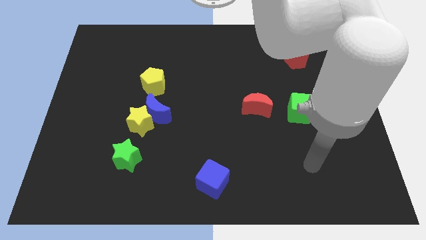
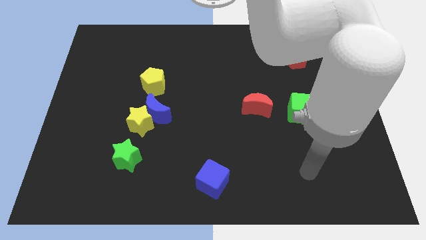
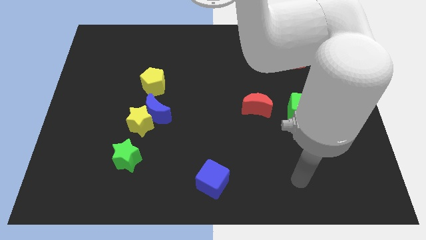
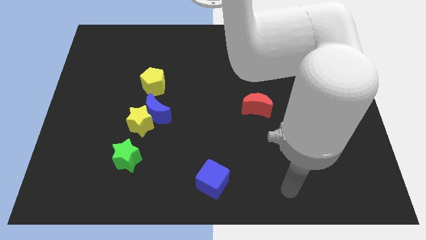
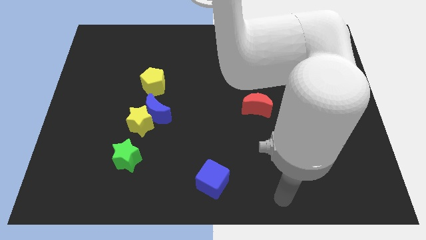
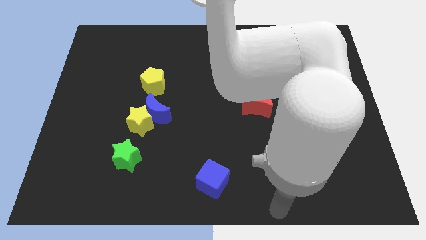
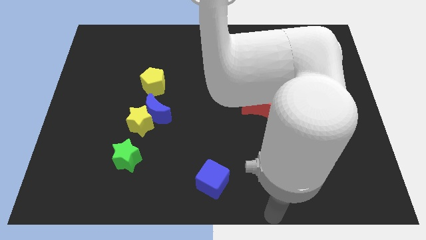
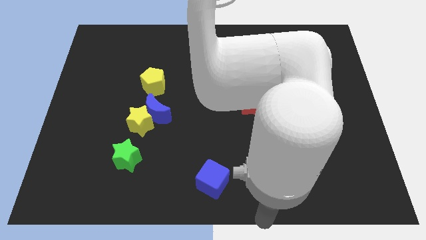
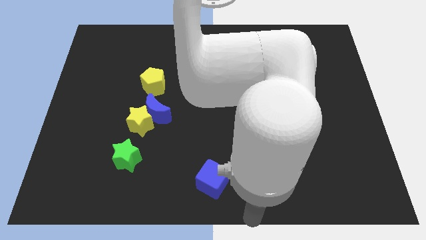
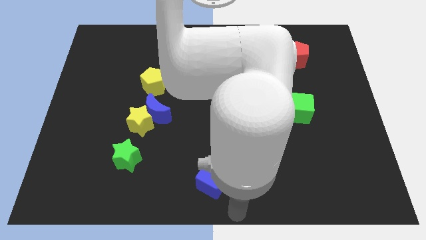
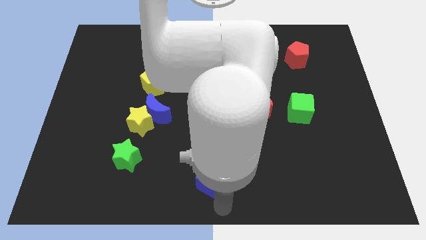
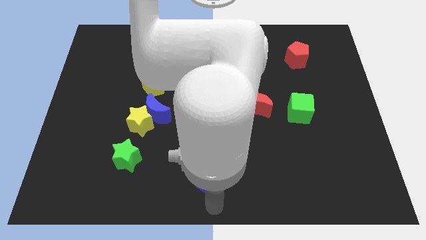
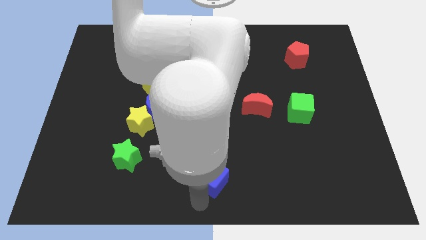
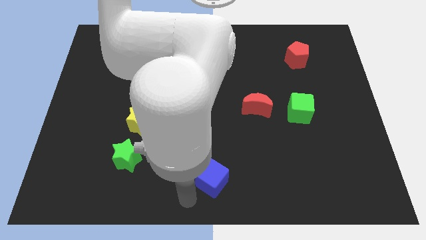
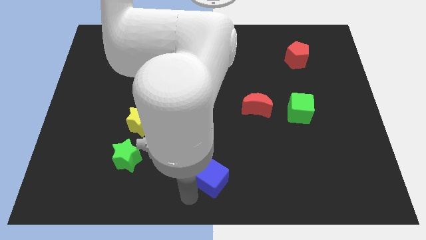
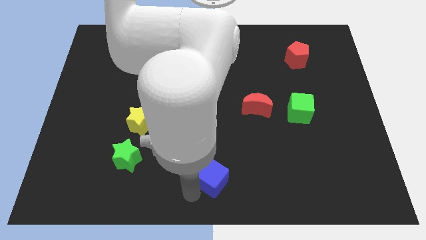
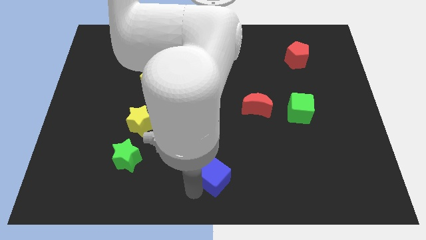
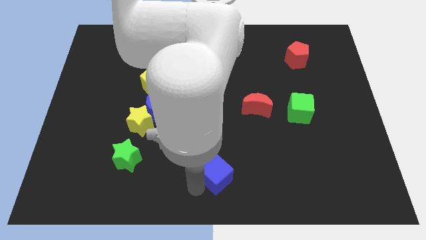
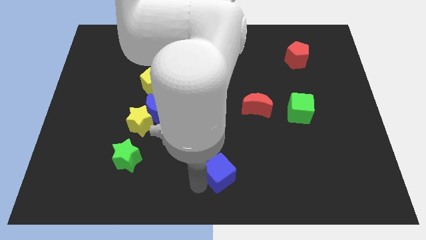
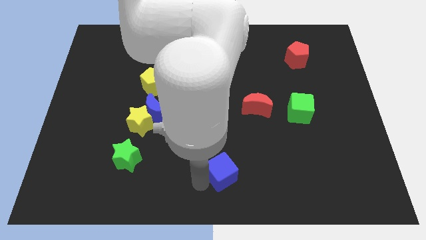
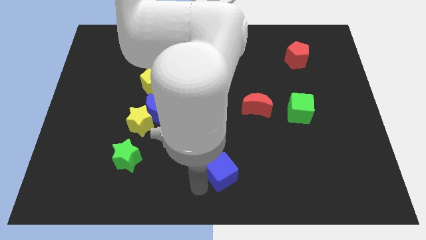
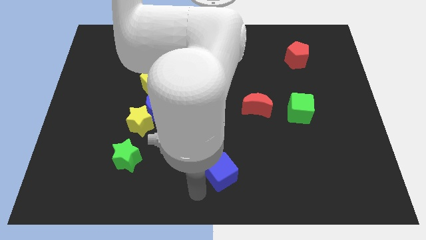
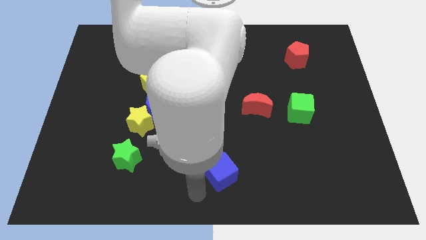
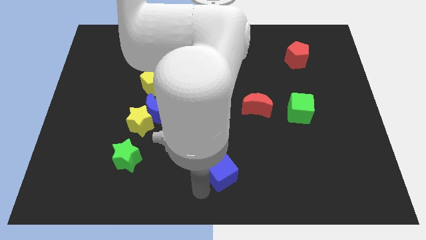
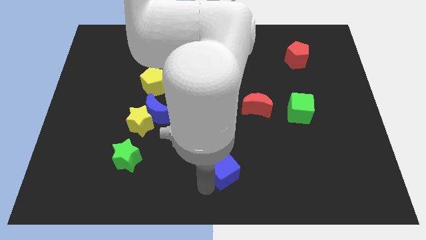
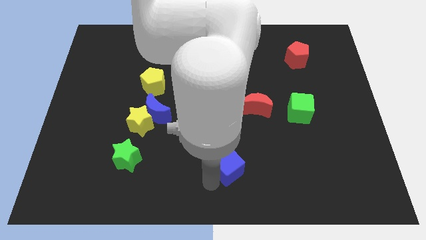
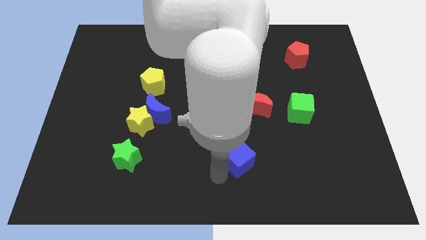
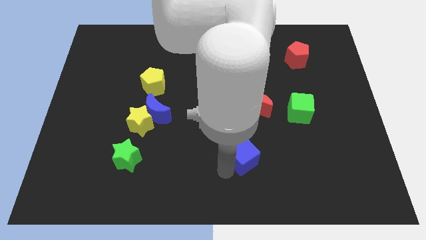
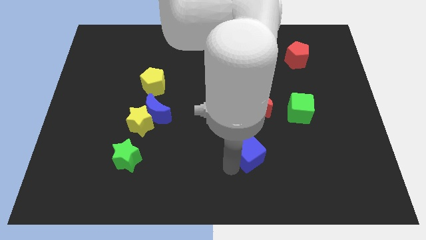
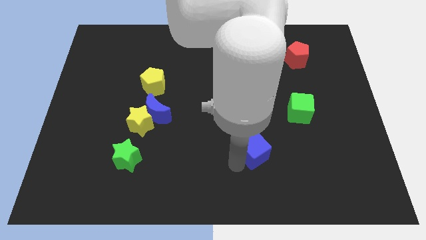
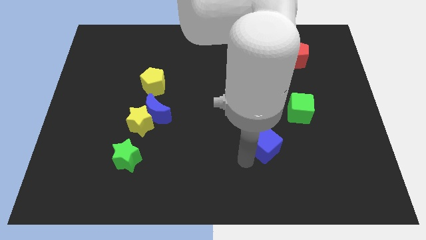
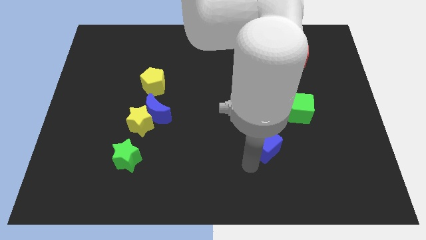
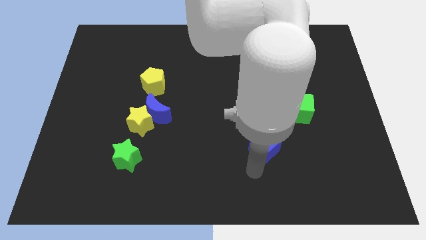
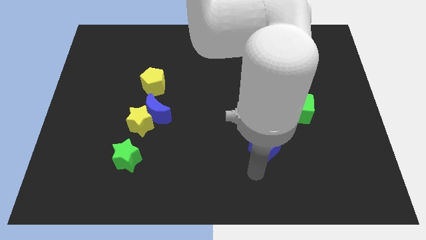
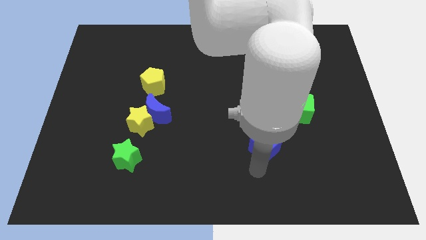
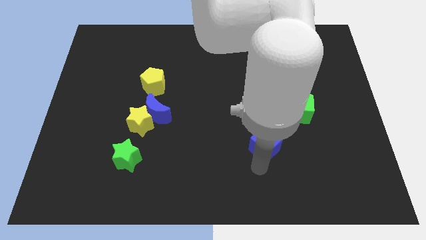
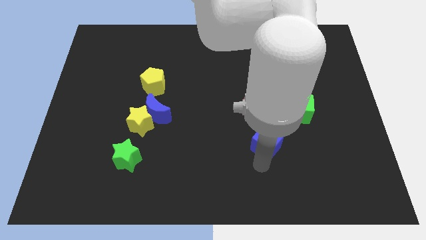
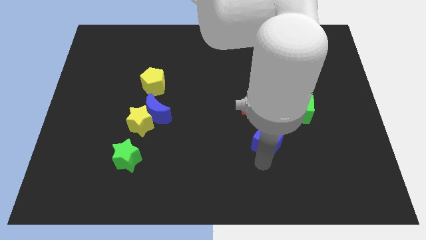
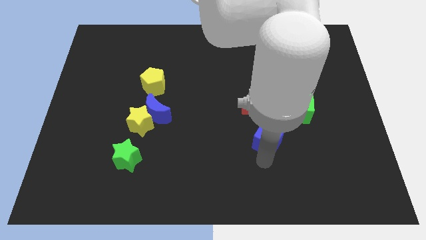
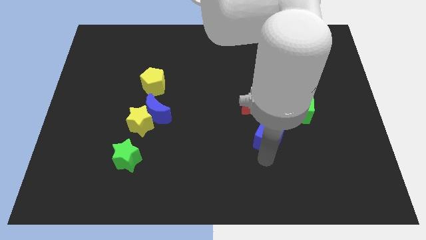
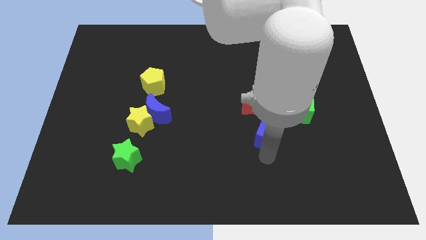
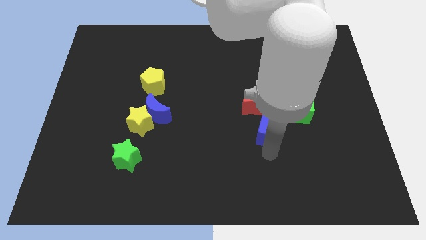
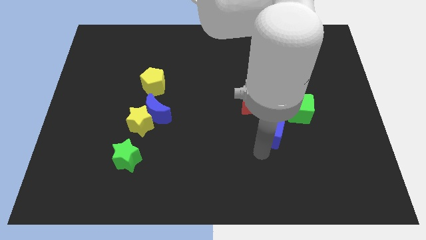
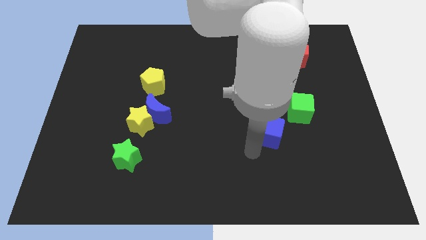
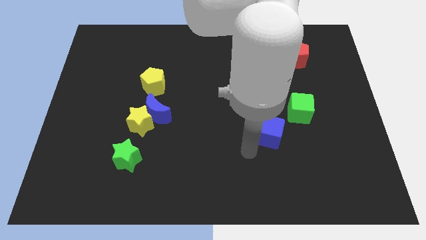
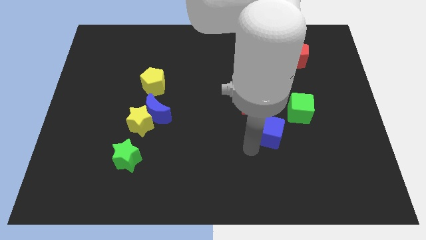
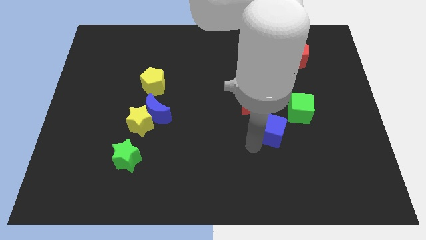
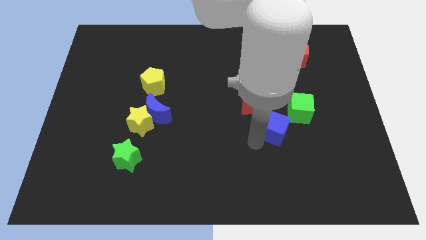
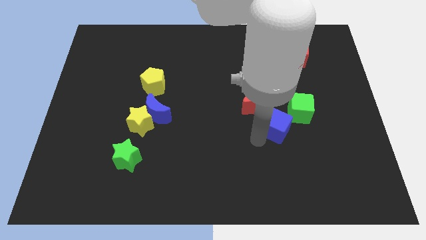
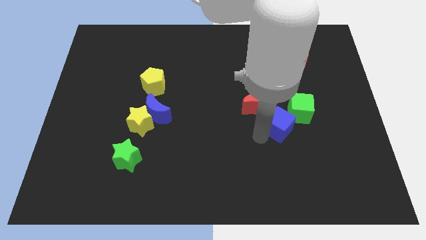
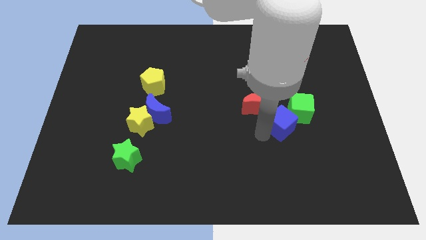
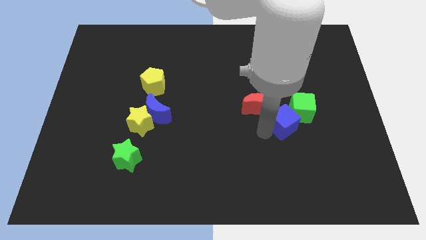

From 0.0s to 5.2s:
put the blue cube to the green cube

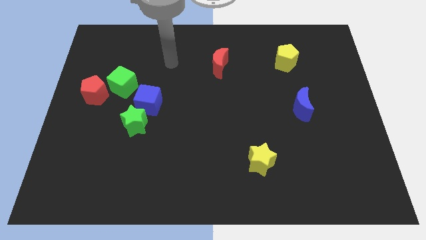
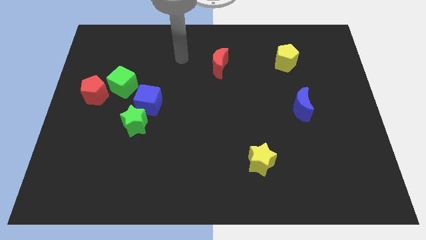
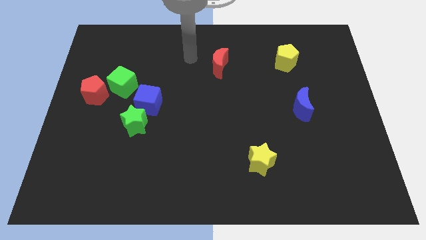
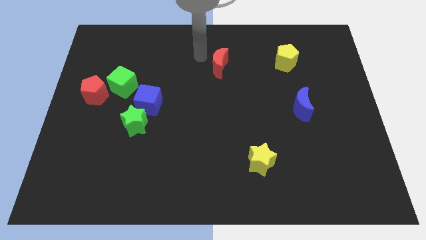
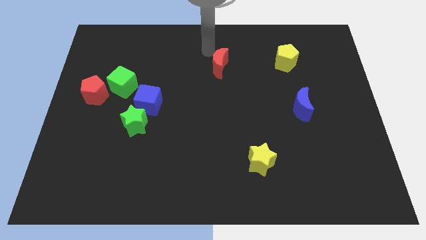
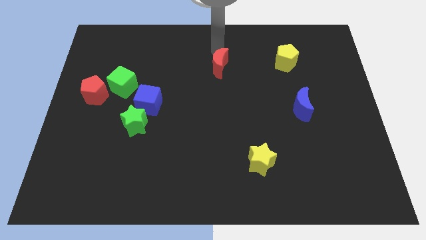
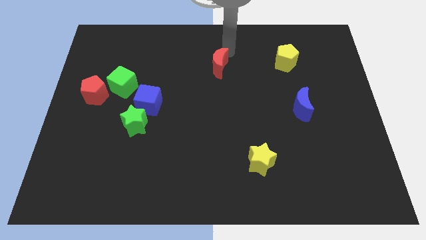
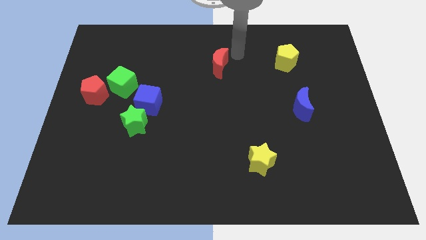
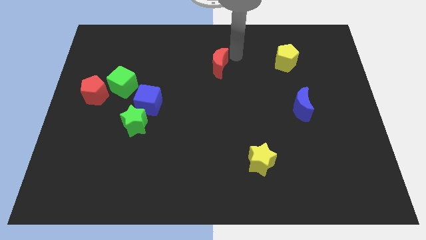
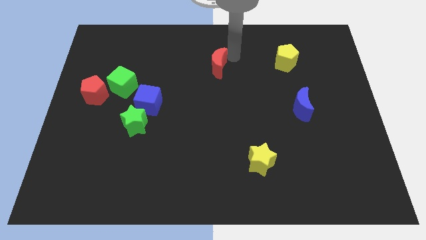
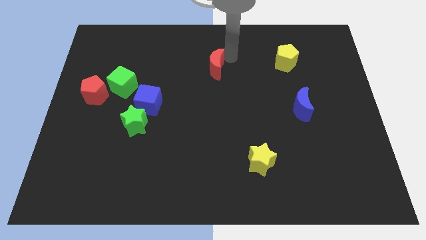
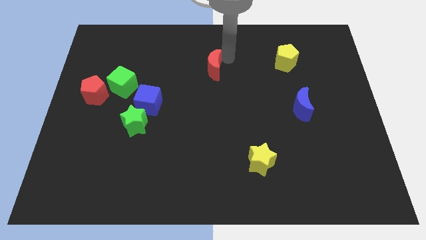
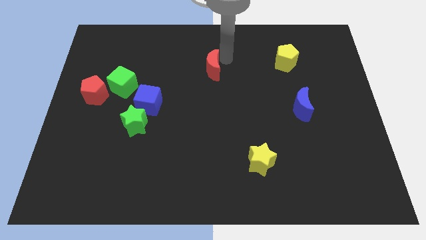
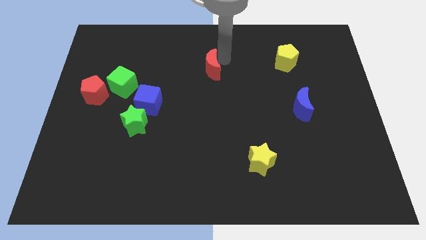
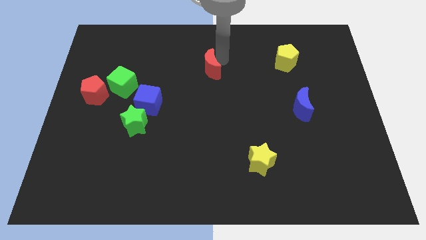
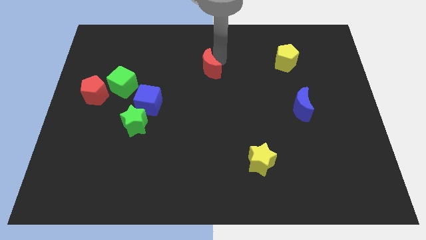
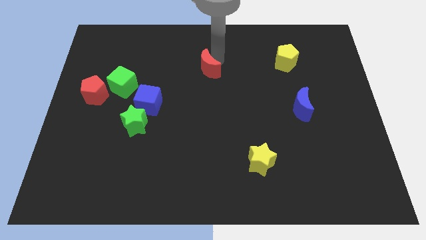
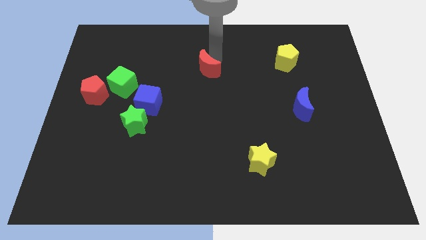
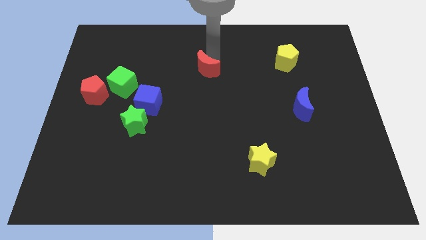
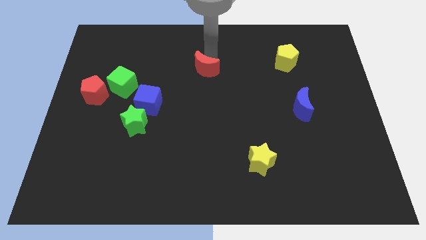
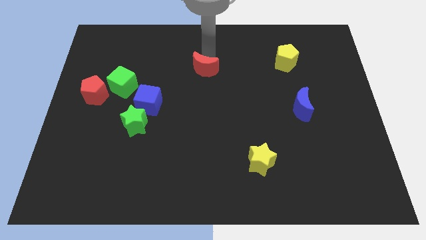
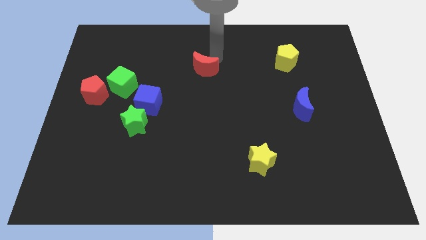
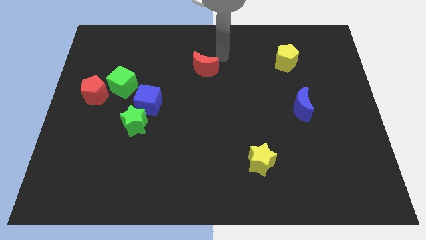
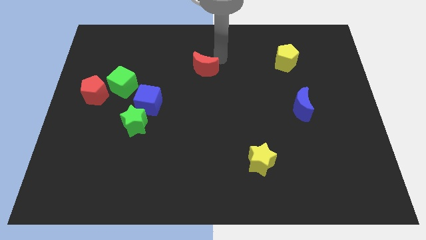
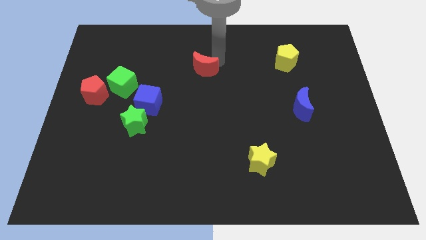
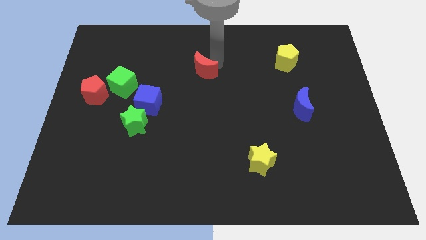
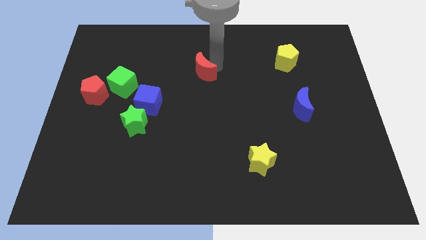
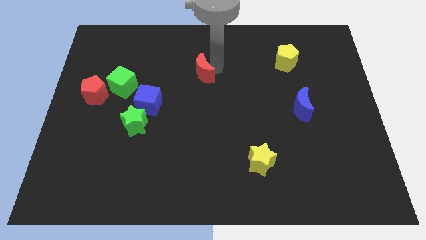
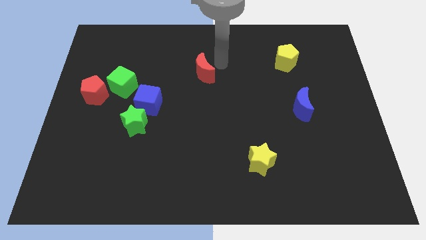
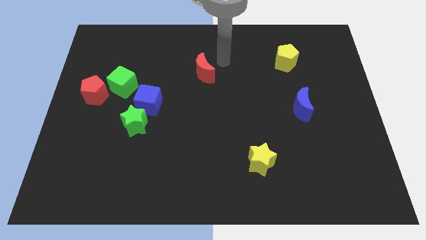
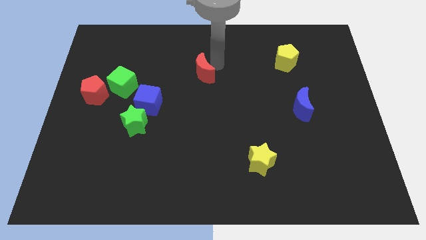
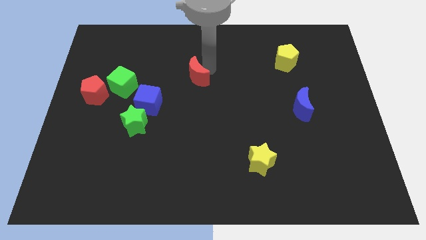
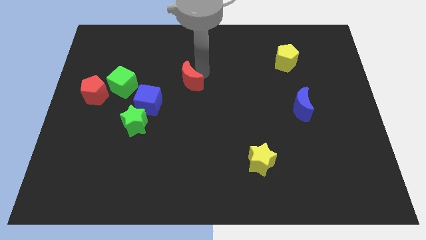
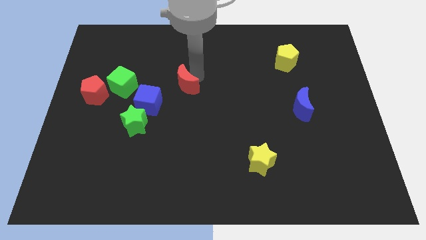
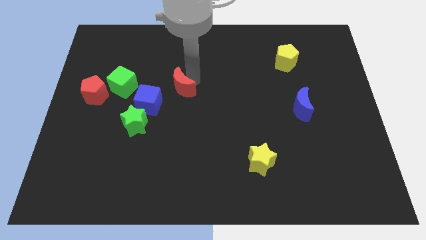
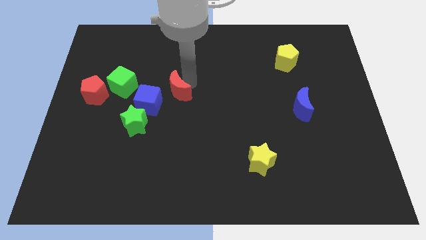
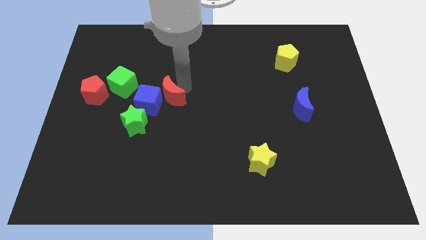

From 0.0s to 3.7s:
push the red moon next to the blue cube
